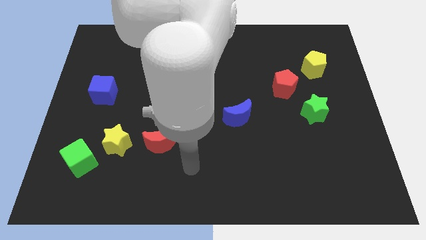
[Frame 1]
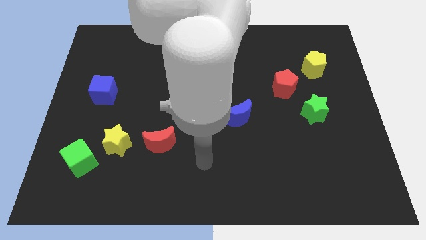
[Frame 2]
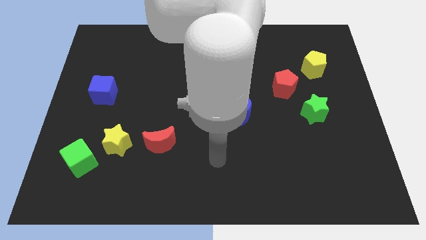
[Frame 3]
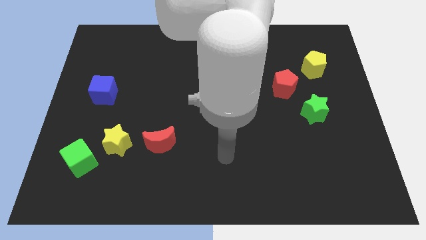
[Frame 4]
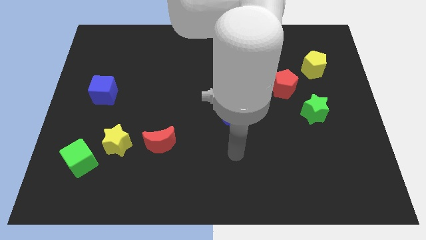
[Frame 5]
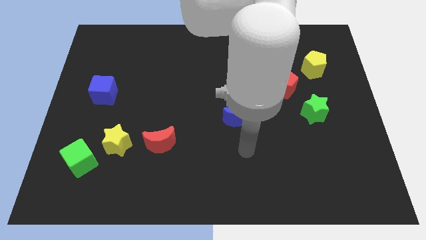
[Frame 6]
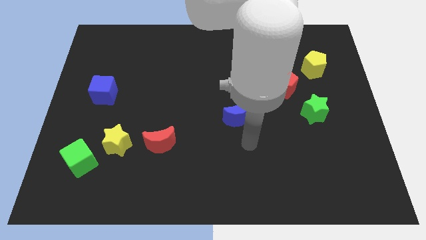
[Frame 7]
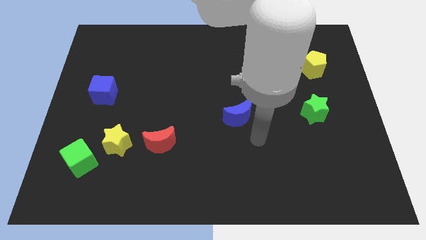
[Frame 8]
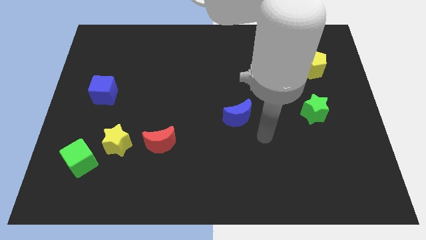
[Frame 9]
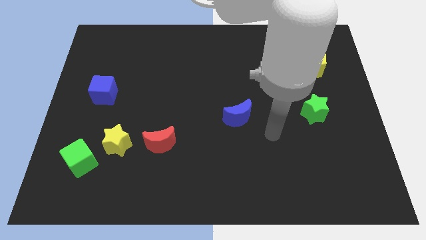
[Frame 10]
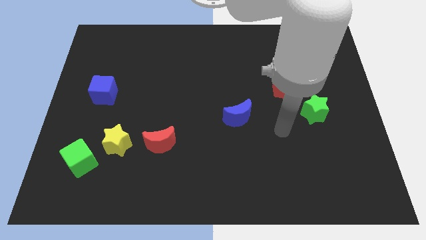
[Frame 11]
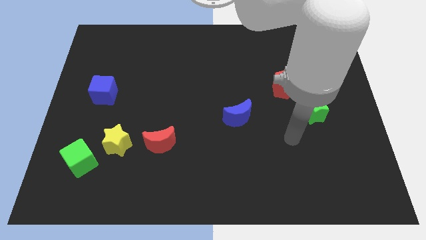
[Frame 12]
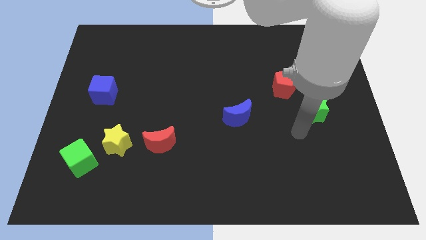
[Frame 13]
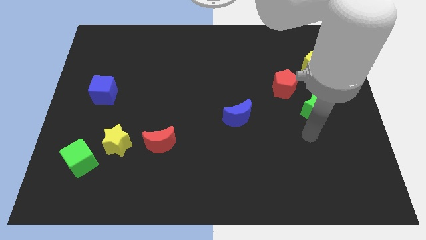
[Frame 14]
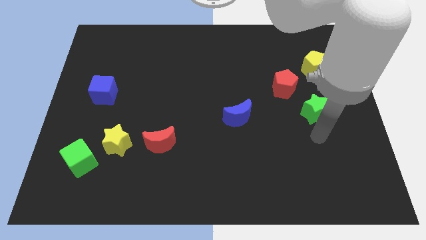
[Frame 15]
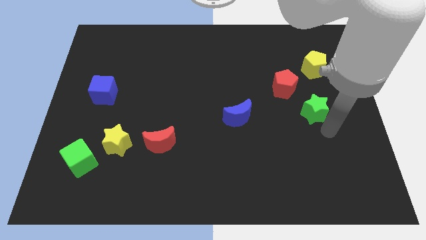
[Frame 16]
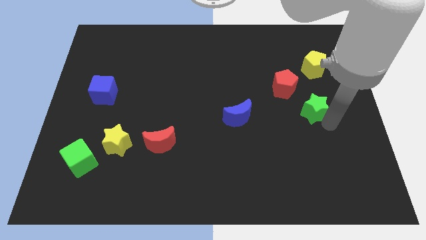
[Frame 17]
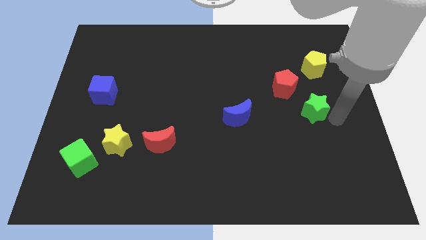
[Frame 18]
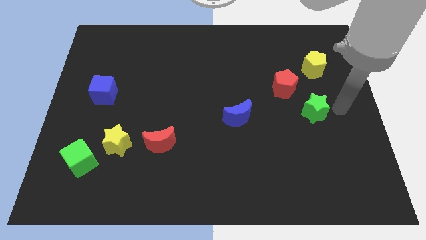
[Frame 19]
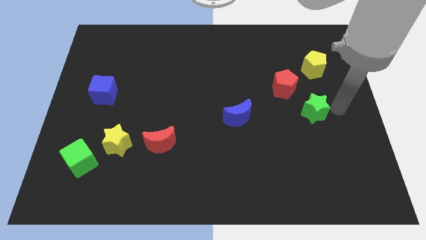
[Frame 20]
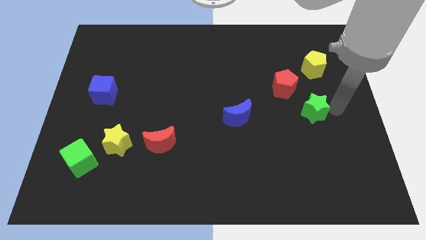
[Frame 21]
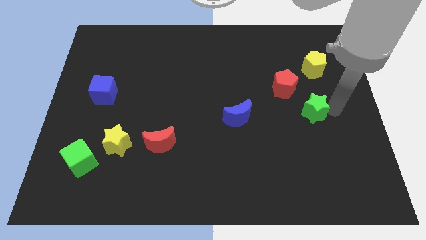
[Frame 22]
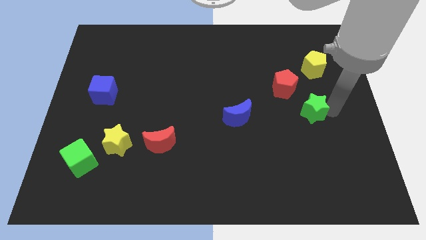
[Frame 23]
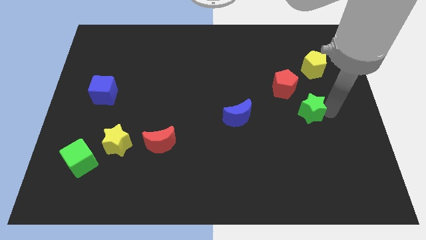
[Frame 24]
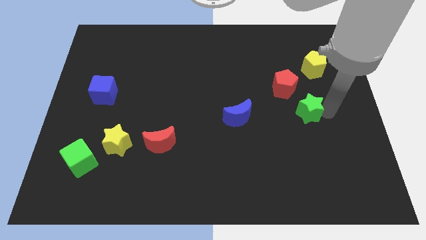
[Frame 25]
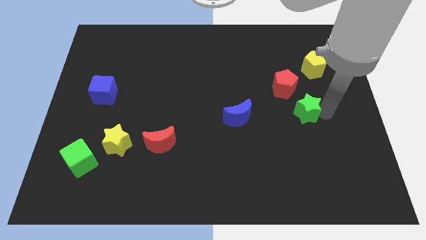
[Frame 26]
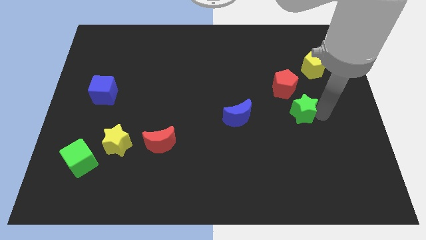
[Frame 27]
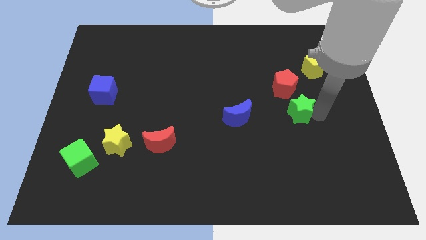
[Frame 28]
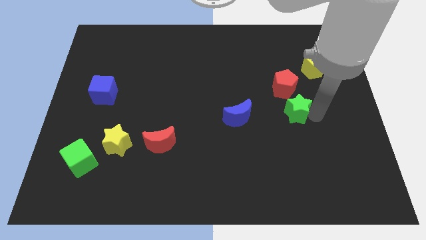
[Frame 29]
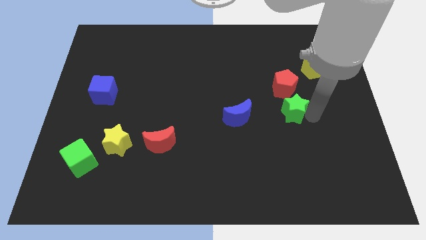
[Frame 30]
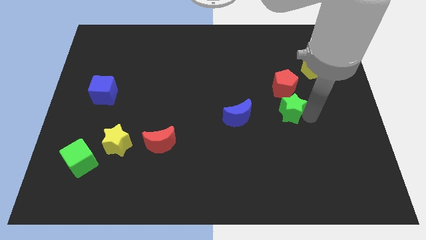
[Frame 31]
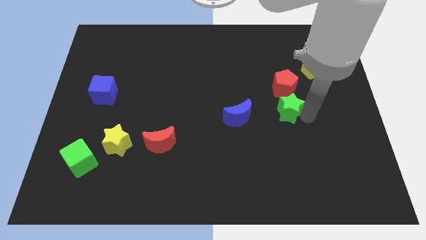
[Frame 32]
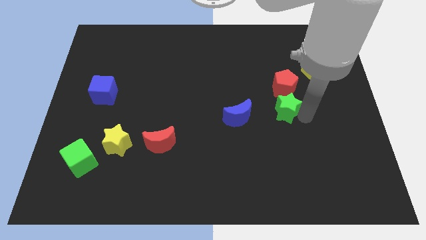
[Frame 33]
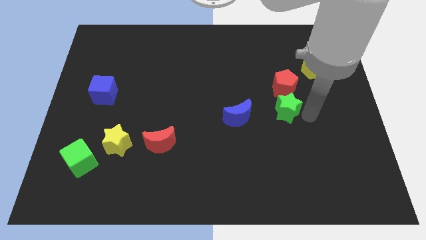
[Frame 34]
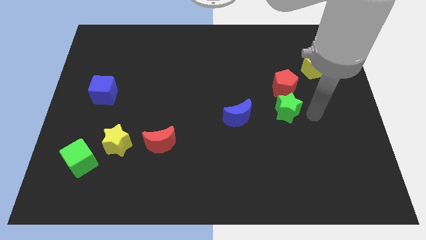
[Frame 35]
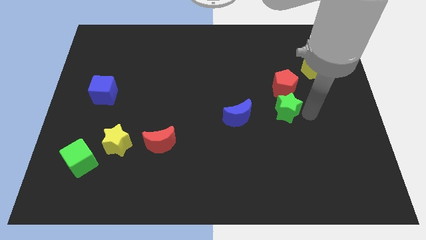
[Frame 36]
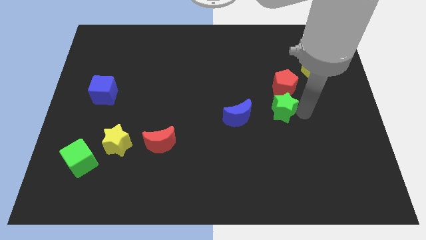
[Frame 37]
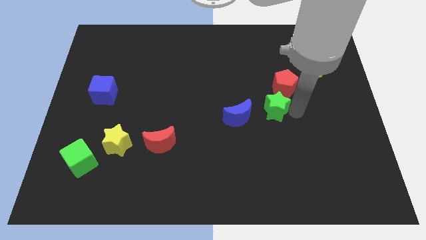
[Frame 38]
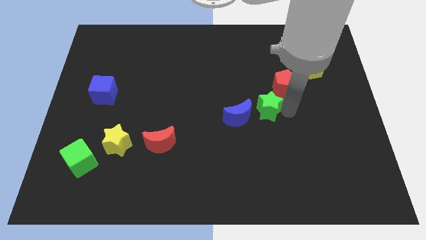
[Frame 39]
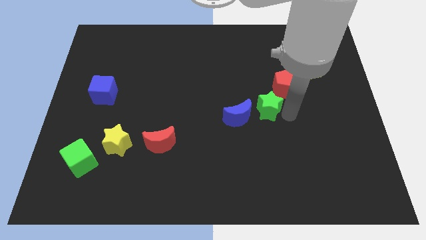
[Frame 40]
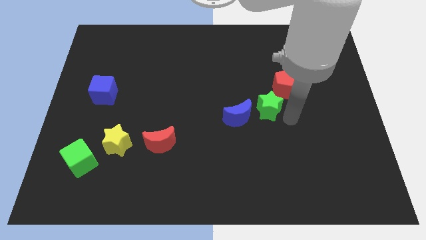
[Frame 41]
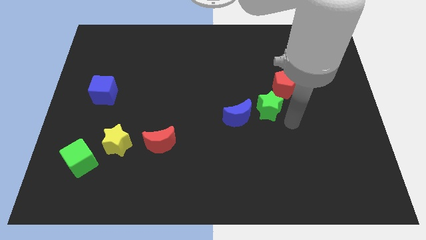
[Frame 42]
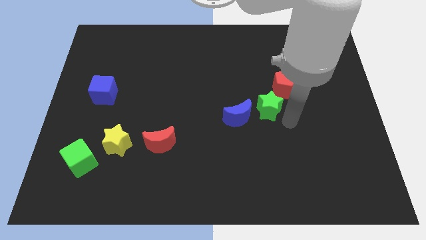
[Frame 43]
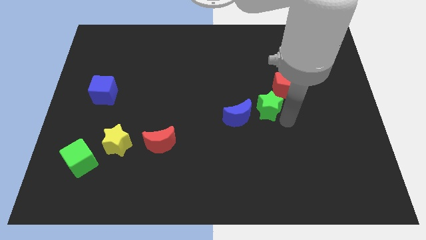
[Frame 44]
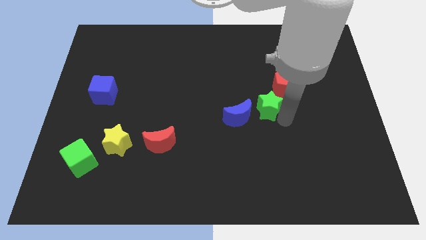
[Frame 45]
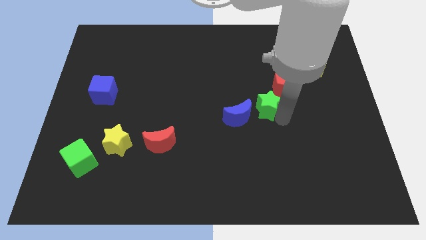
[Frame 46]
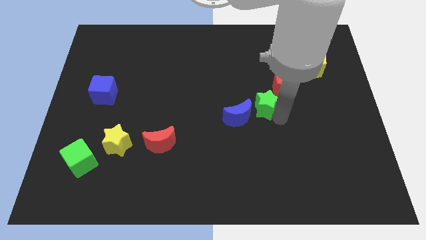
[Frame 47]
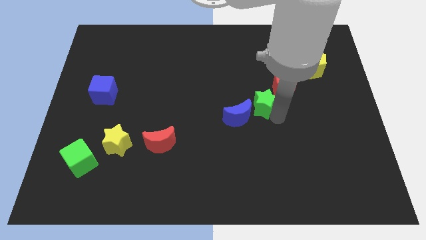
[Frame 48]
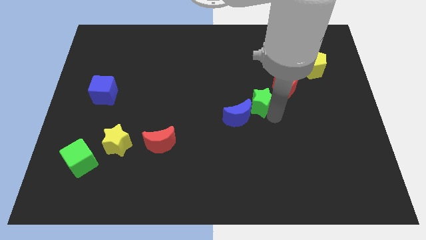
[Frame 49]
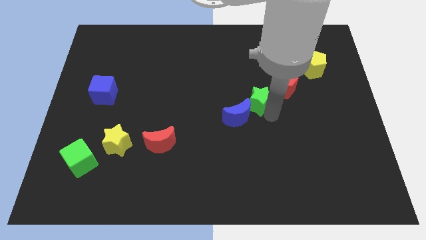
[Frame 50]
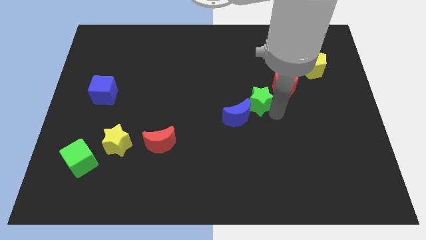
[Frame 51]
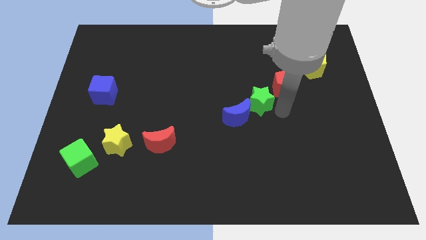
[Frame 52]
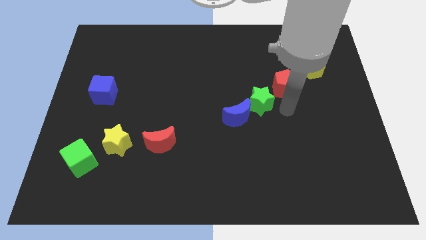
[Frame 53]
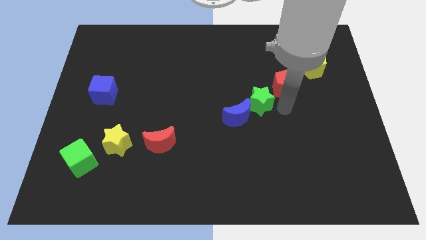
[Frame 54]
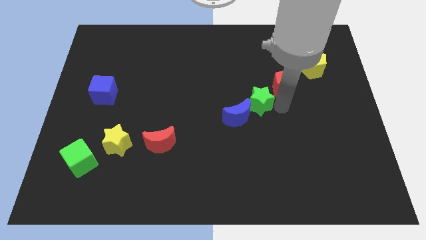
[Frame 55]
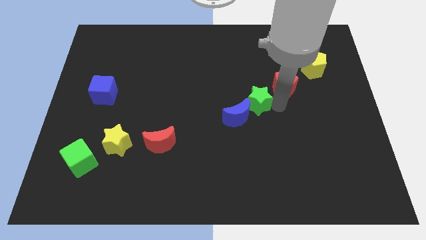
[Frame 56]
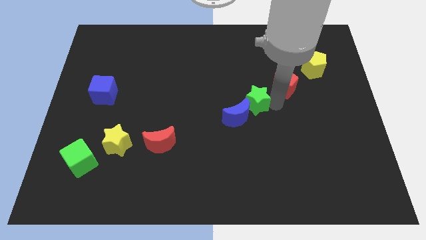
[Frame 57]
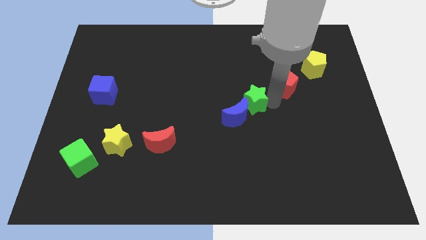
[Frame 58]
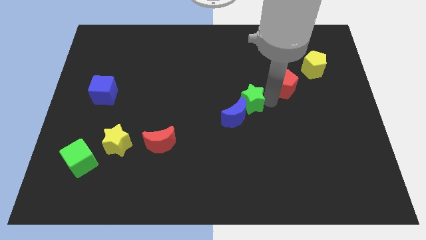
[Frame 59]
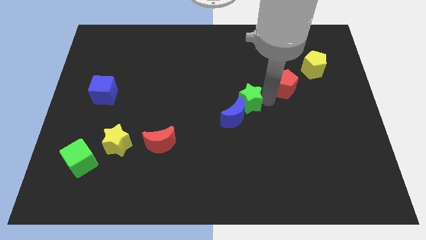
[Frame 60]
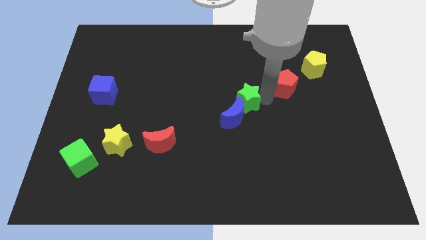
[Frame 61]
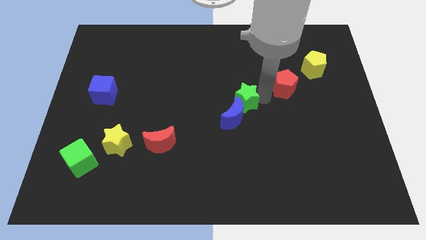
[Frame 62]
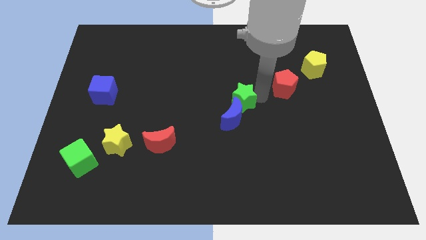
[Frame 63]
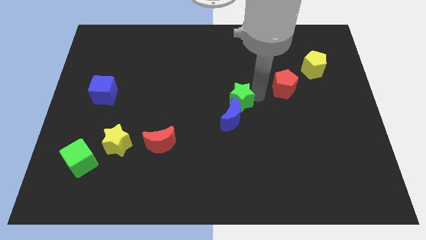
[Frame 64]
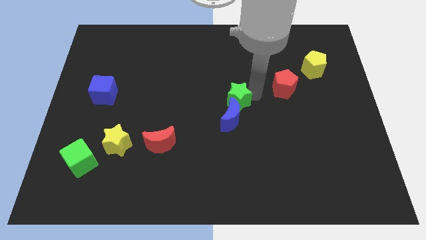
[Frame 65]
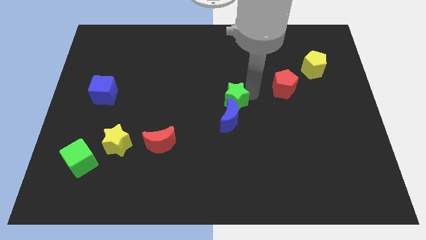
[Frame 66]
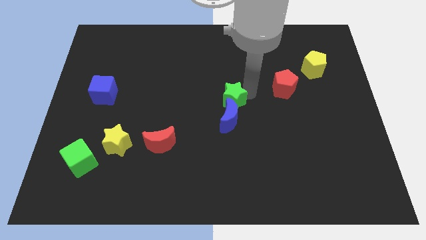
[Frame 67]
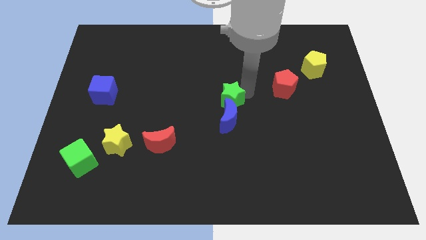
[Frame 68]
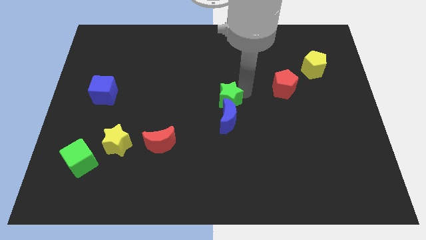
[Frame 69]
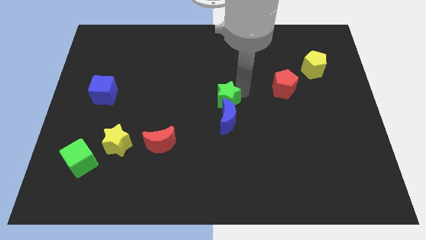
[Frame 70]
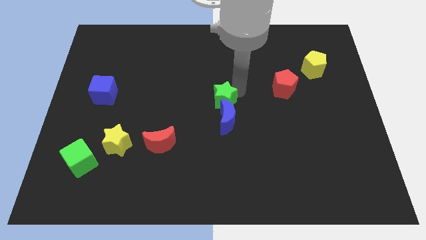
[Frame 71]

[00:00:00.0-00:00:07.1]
slide the green star to the left

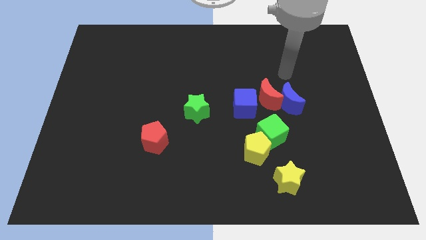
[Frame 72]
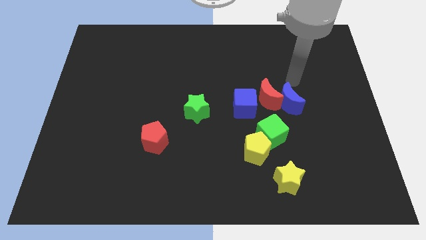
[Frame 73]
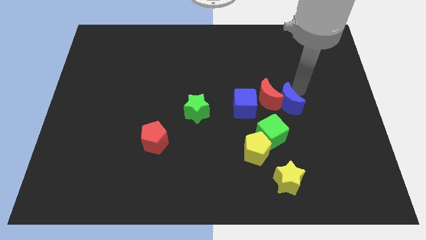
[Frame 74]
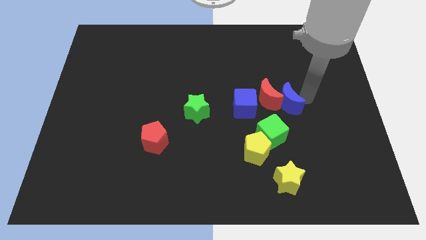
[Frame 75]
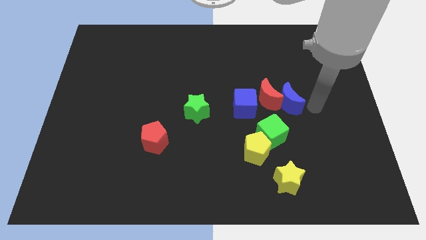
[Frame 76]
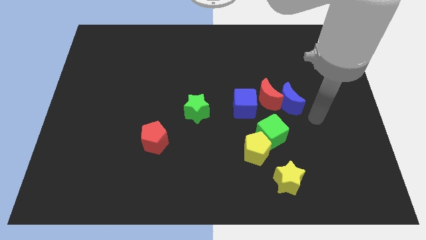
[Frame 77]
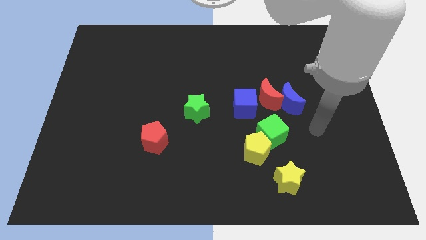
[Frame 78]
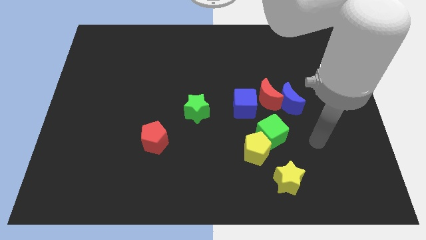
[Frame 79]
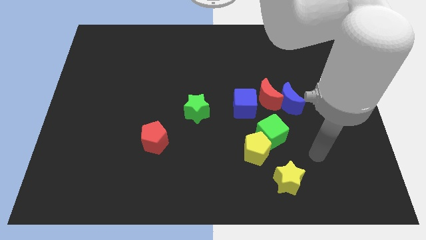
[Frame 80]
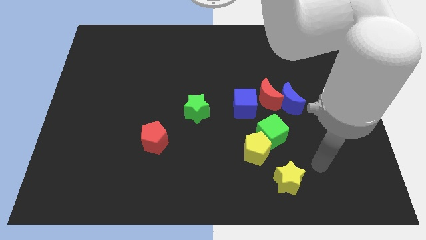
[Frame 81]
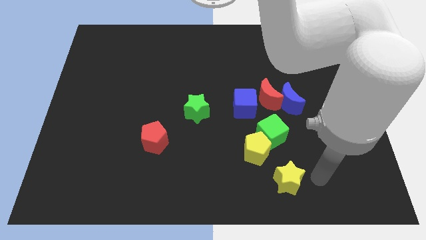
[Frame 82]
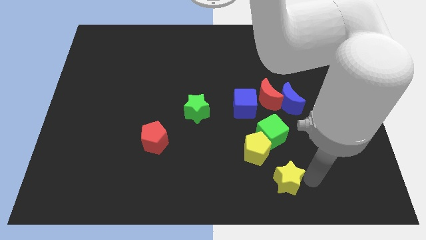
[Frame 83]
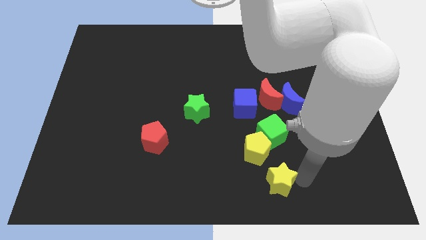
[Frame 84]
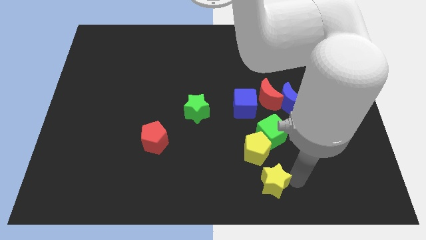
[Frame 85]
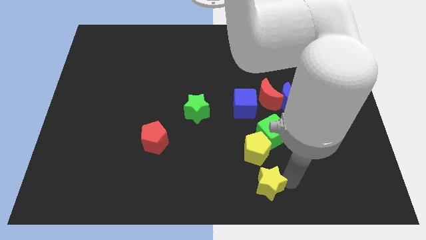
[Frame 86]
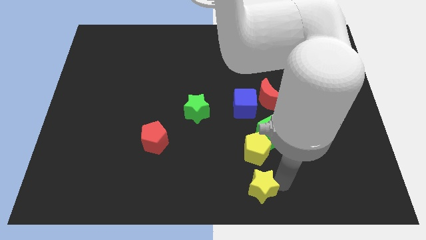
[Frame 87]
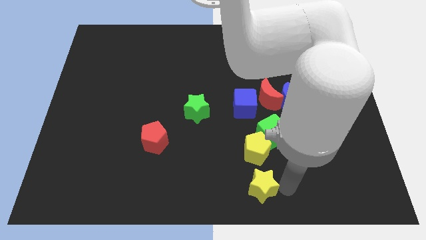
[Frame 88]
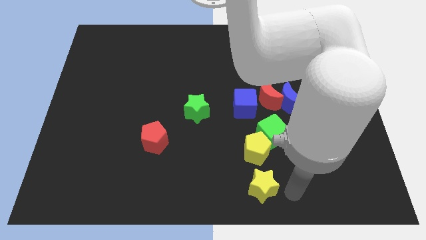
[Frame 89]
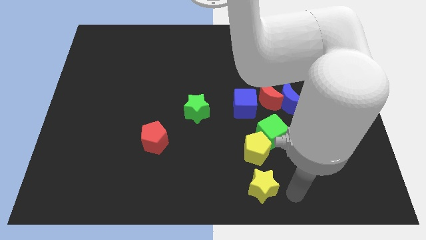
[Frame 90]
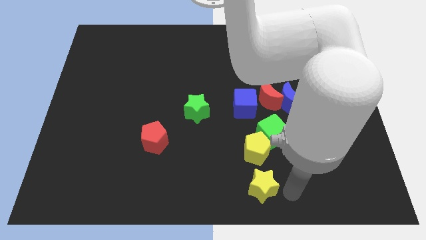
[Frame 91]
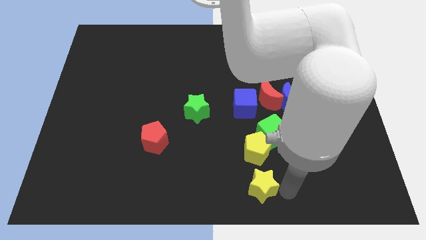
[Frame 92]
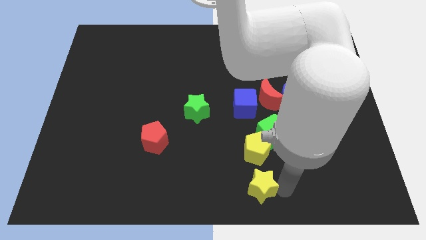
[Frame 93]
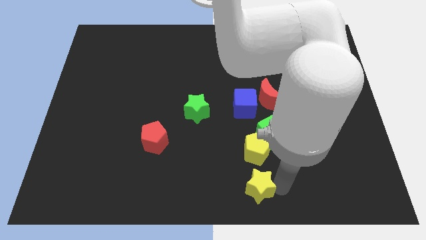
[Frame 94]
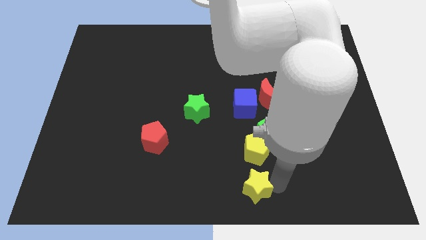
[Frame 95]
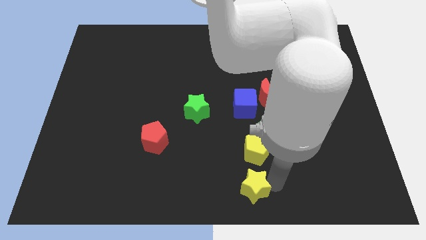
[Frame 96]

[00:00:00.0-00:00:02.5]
push the yellow star a little bit to the left
